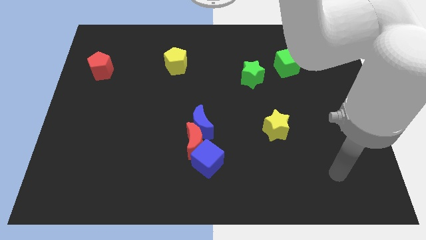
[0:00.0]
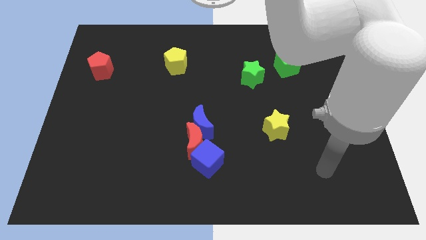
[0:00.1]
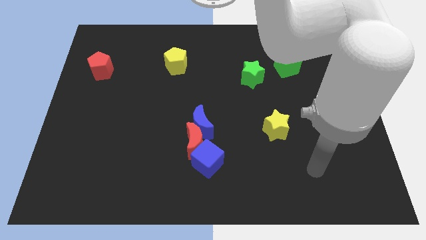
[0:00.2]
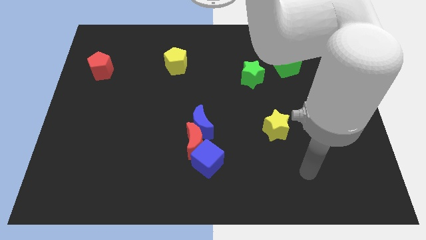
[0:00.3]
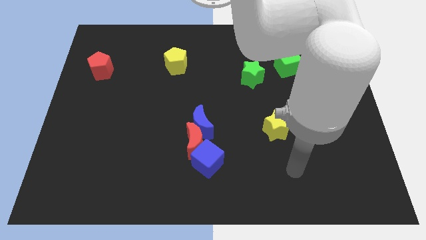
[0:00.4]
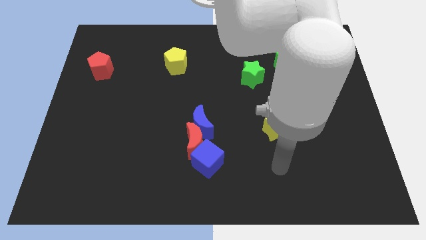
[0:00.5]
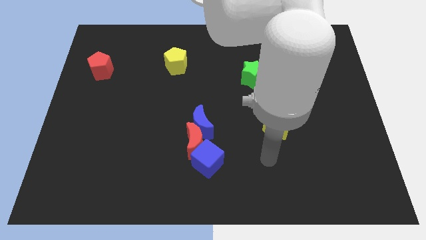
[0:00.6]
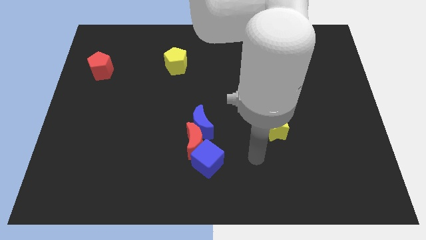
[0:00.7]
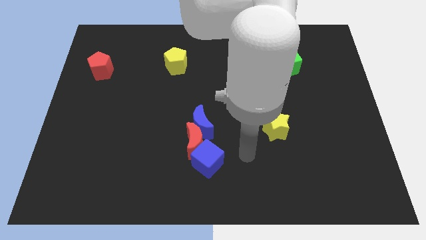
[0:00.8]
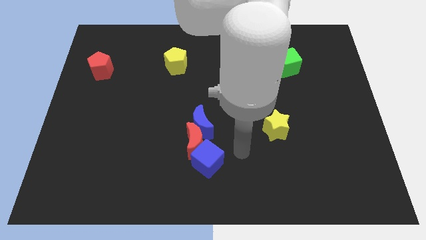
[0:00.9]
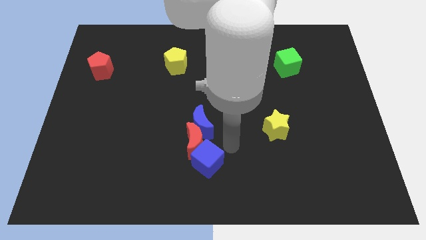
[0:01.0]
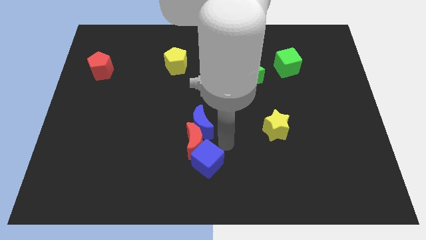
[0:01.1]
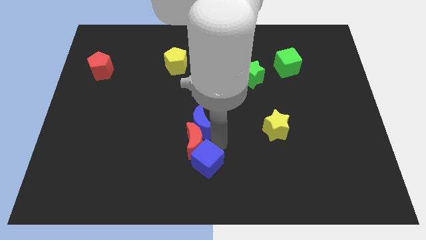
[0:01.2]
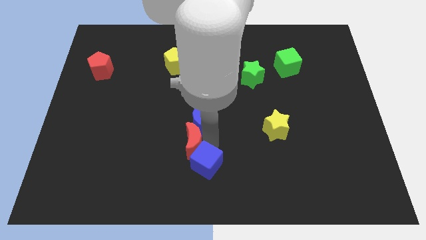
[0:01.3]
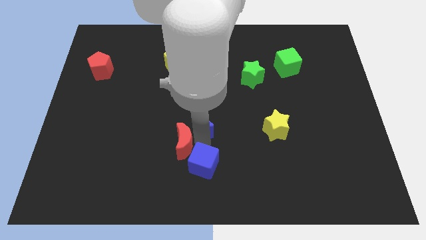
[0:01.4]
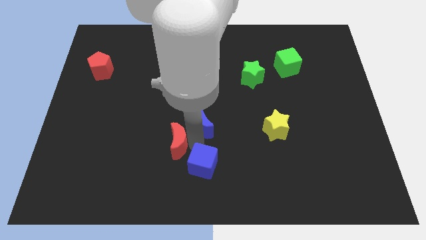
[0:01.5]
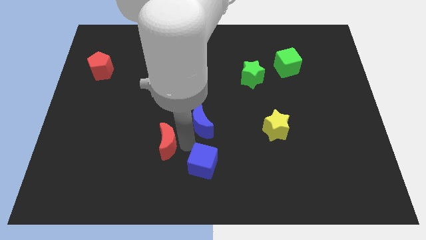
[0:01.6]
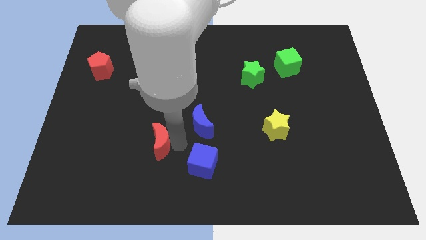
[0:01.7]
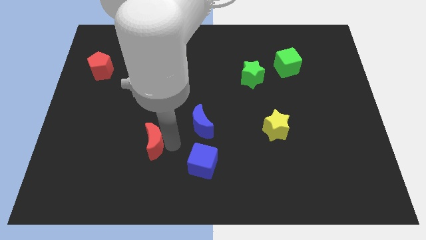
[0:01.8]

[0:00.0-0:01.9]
move the red moon away from the blue moon and blue cube

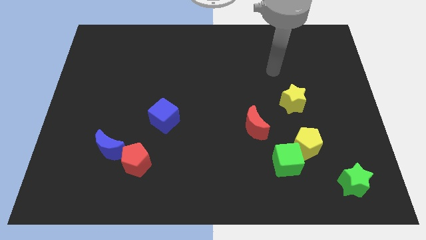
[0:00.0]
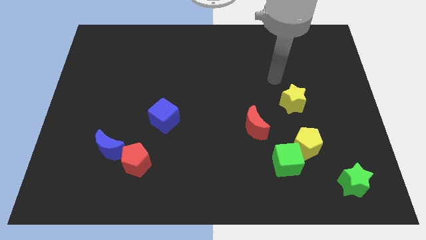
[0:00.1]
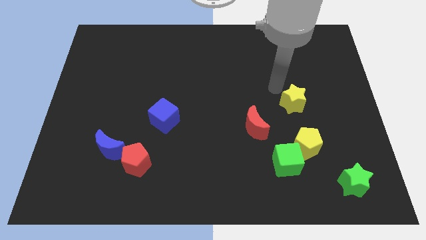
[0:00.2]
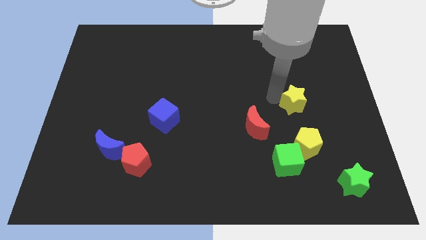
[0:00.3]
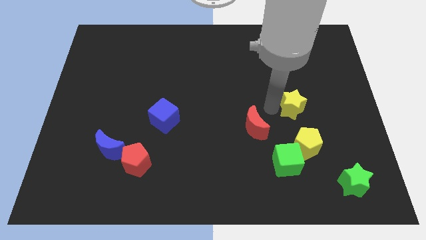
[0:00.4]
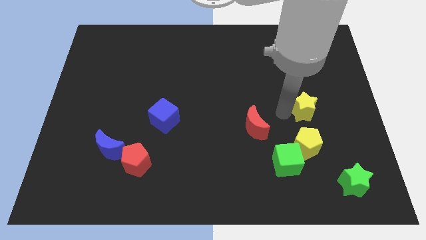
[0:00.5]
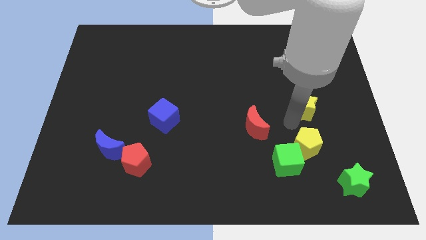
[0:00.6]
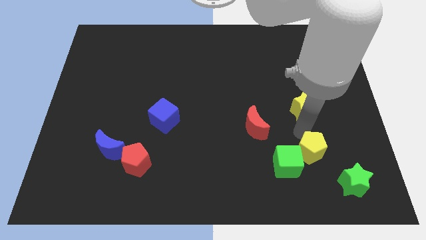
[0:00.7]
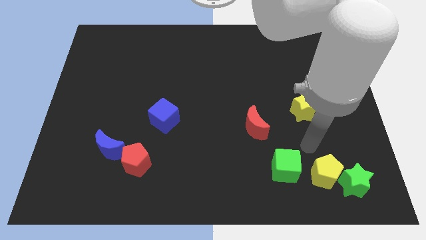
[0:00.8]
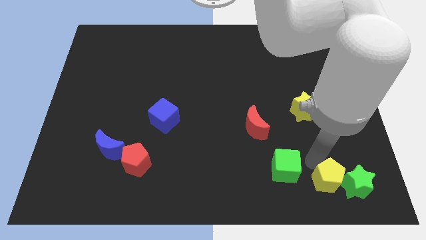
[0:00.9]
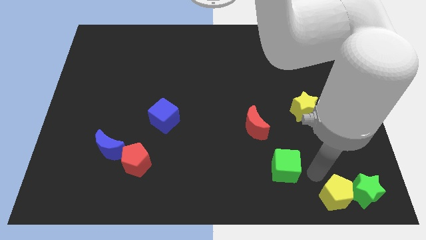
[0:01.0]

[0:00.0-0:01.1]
pull the green cube apart from the yellow pentagon

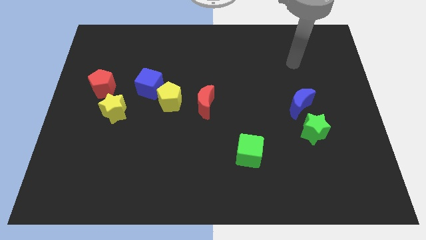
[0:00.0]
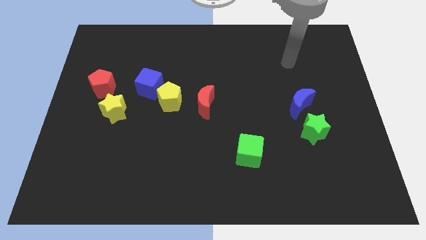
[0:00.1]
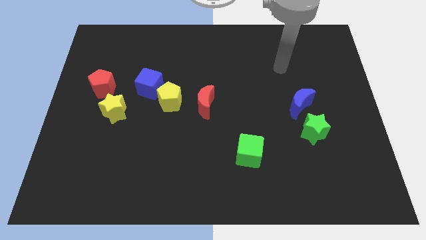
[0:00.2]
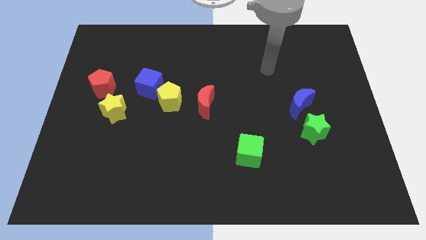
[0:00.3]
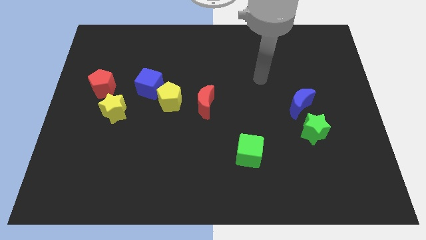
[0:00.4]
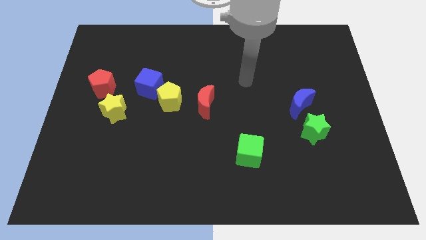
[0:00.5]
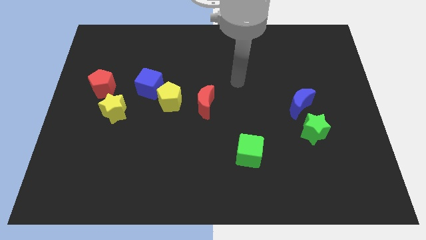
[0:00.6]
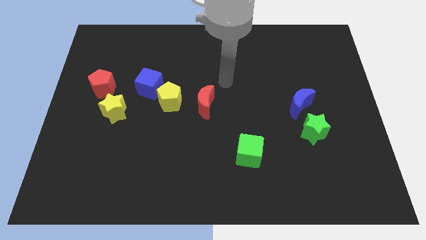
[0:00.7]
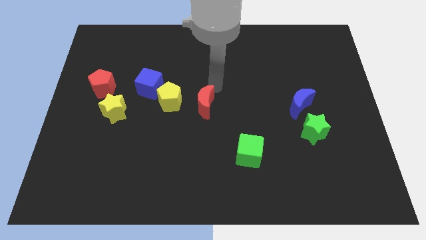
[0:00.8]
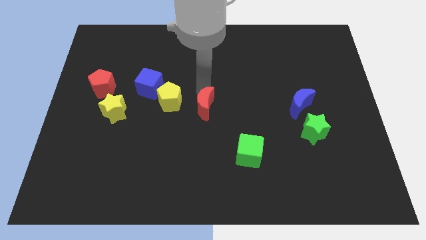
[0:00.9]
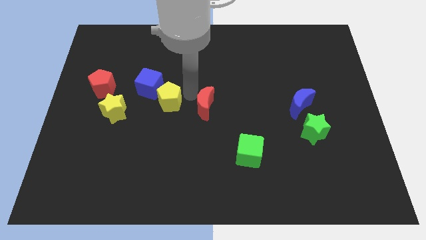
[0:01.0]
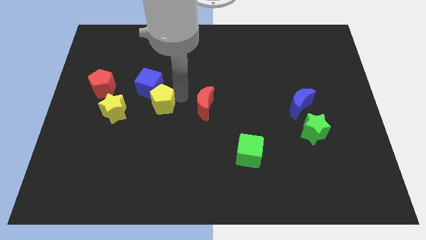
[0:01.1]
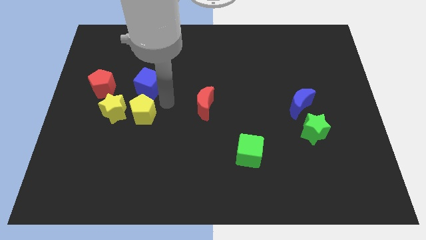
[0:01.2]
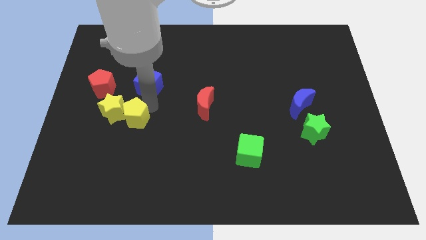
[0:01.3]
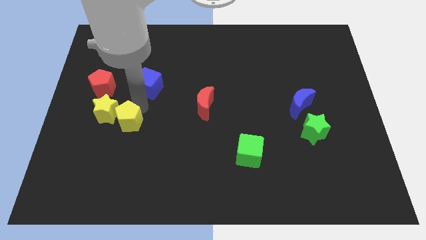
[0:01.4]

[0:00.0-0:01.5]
move the blue cube away from the yellow pentagon

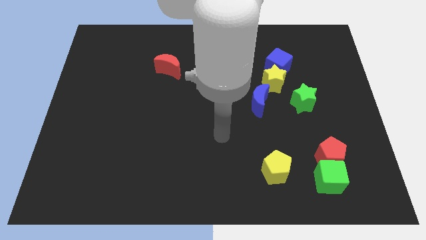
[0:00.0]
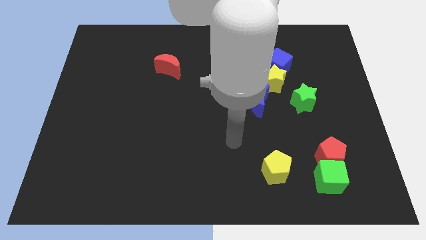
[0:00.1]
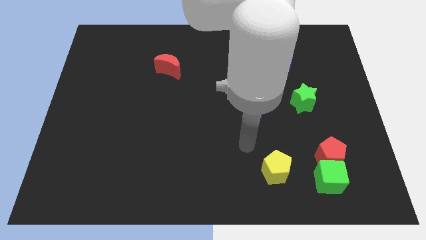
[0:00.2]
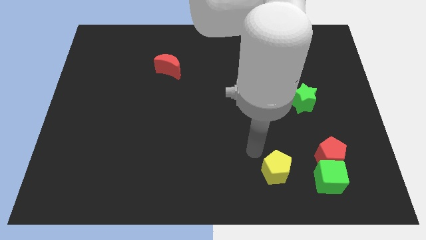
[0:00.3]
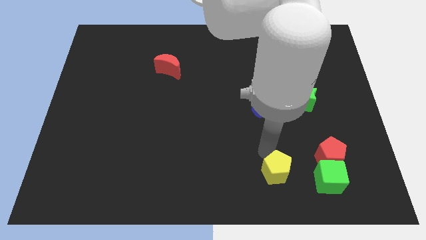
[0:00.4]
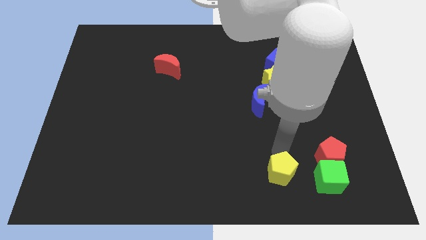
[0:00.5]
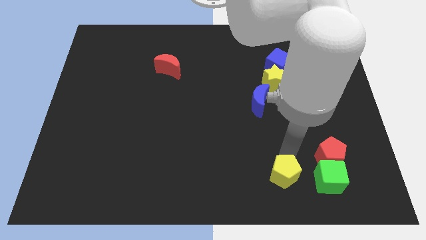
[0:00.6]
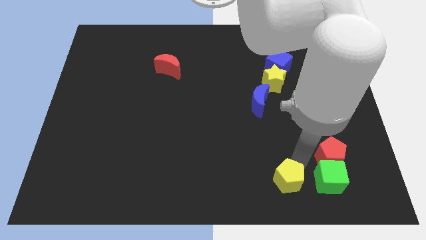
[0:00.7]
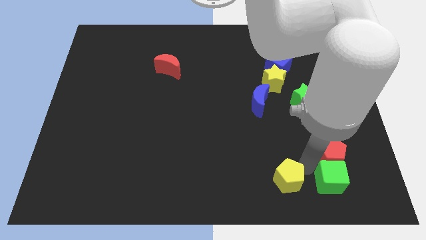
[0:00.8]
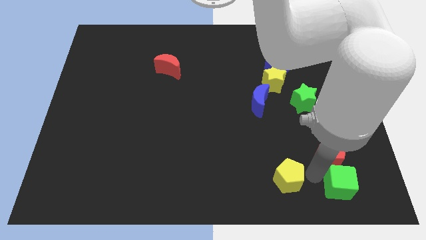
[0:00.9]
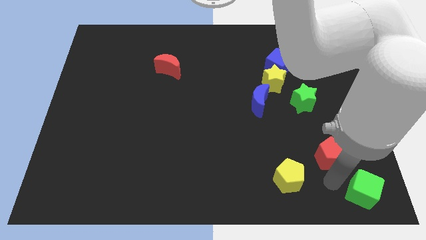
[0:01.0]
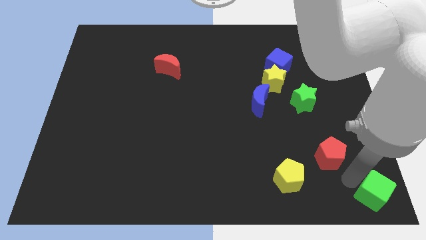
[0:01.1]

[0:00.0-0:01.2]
move the red pentagon away from the green cube

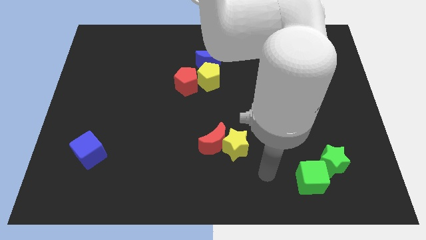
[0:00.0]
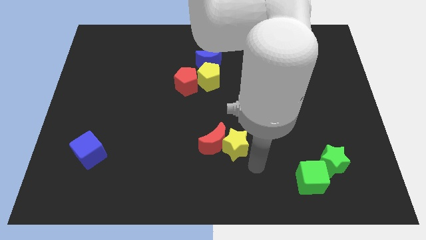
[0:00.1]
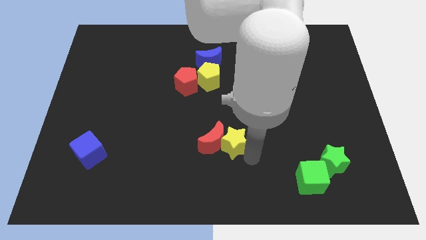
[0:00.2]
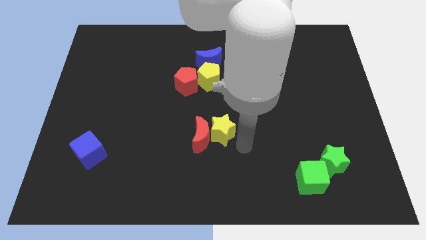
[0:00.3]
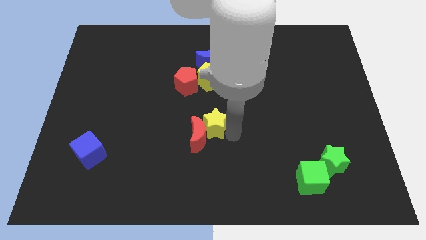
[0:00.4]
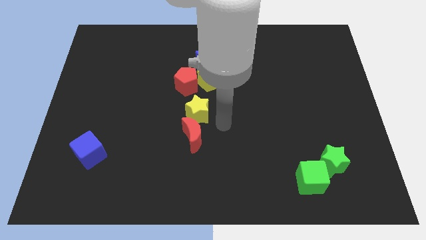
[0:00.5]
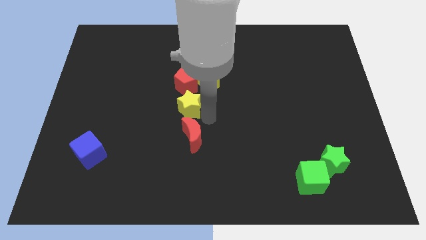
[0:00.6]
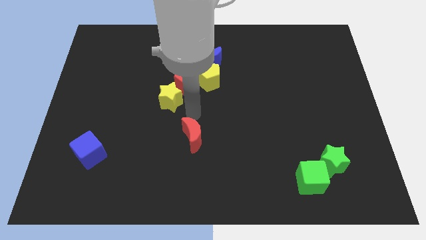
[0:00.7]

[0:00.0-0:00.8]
pull the red moon apart from the yellow star

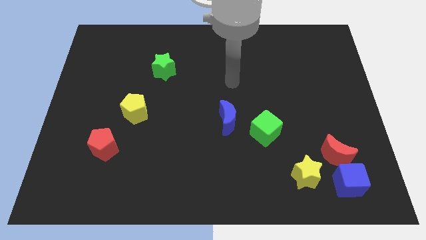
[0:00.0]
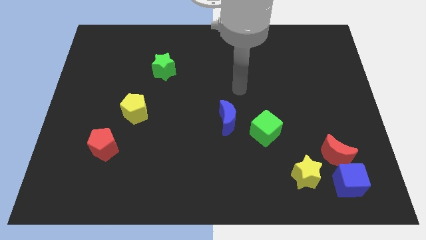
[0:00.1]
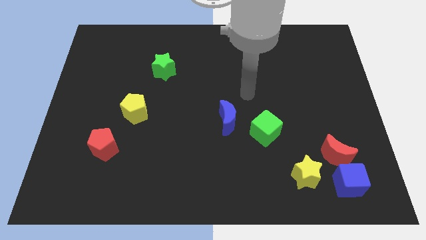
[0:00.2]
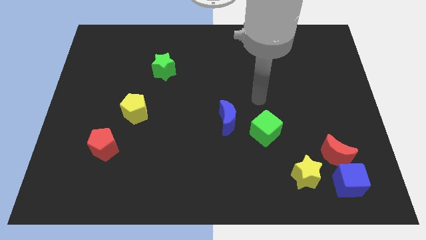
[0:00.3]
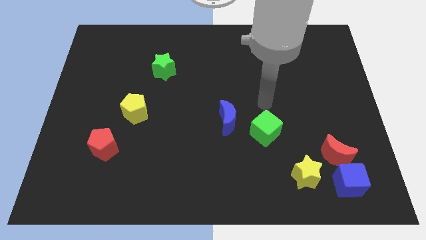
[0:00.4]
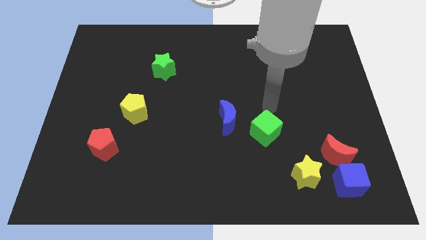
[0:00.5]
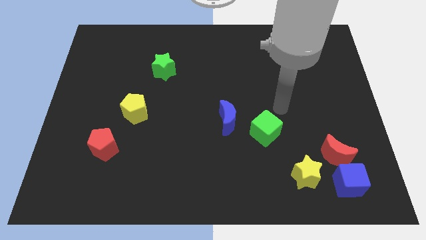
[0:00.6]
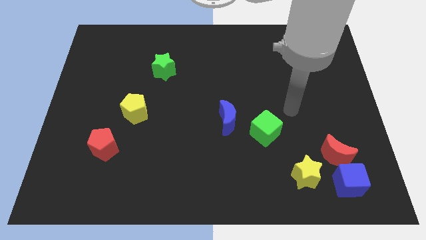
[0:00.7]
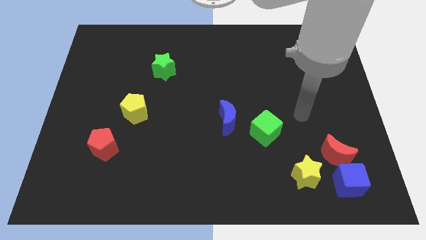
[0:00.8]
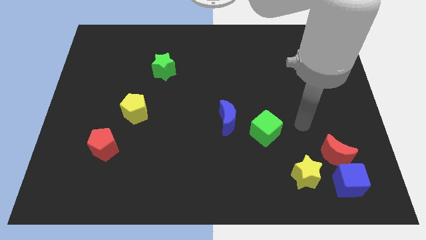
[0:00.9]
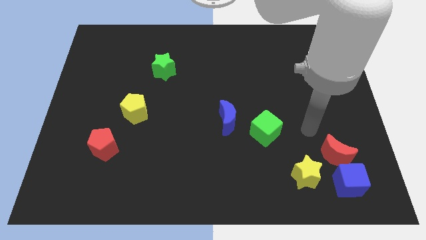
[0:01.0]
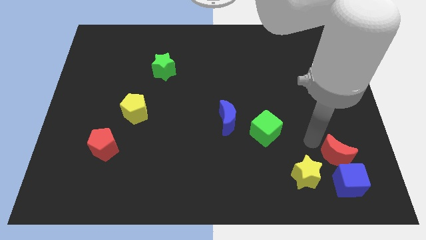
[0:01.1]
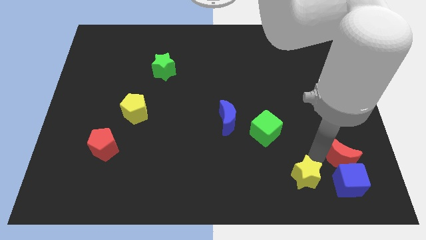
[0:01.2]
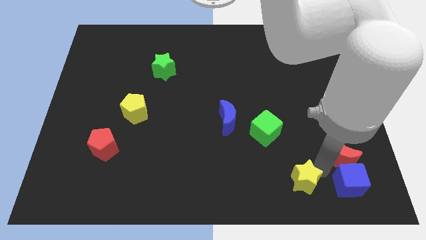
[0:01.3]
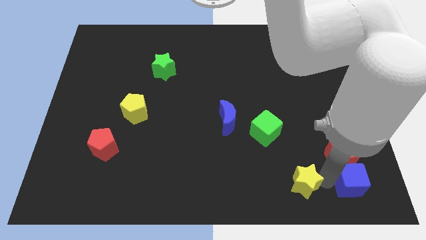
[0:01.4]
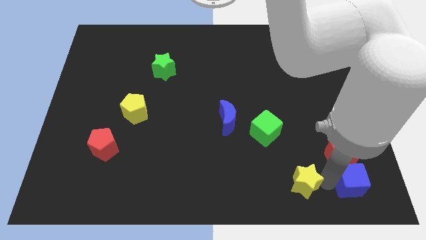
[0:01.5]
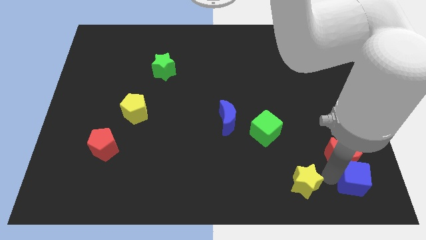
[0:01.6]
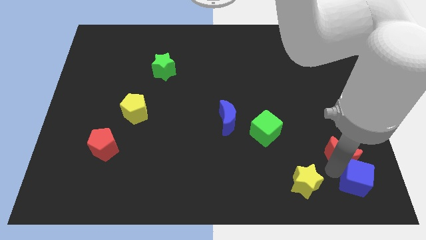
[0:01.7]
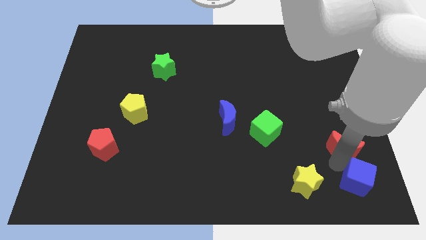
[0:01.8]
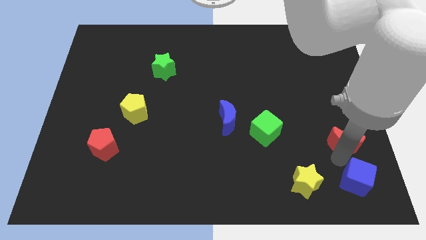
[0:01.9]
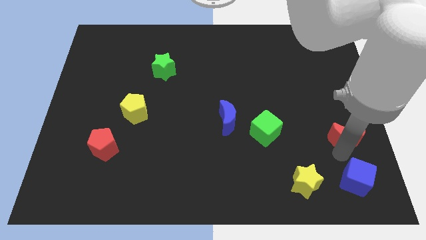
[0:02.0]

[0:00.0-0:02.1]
pull the red moon apart from the blue cube and yellow star

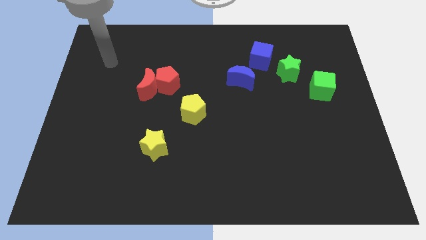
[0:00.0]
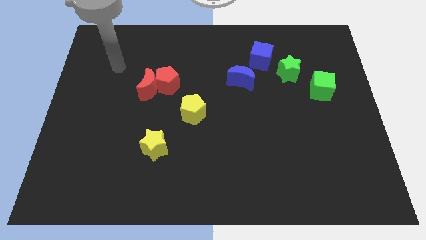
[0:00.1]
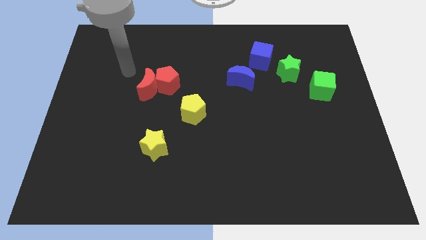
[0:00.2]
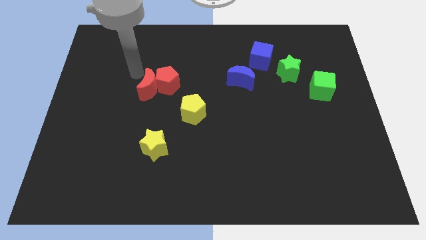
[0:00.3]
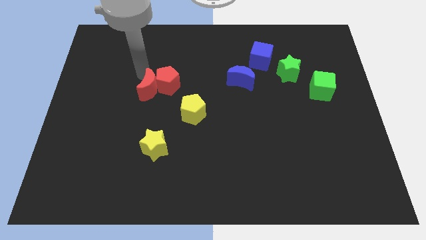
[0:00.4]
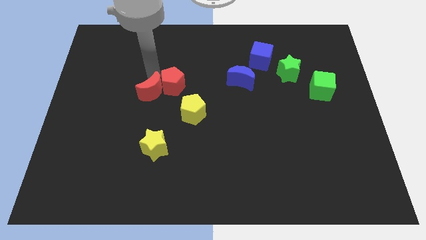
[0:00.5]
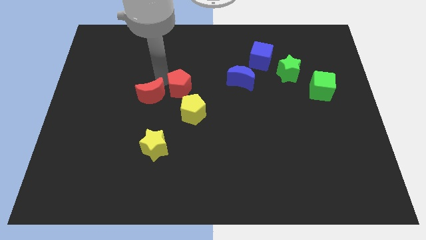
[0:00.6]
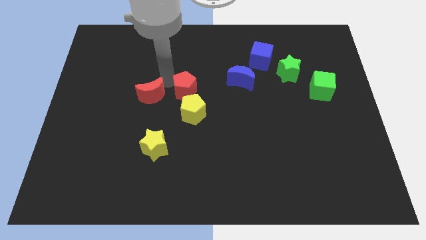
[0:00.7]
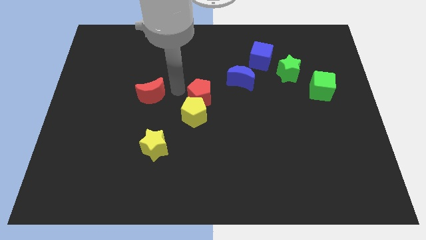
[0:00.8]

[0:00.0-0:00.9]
move the red moon away from the red pentagon
